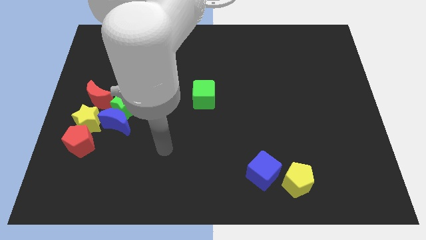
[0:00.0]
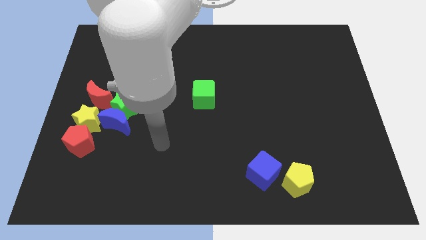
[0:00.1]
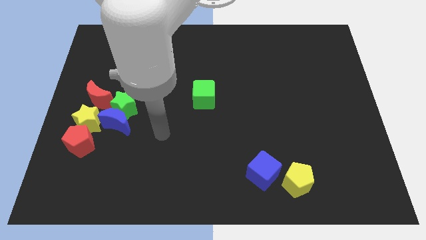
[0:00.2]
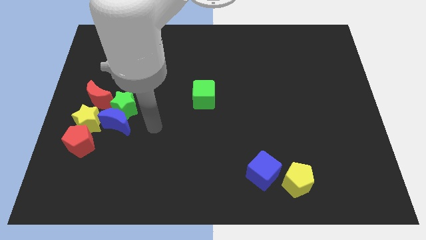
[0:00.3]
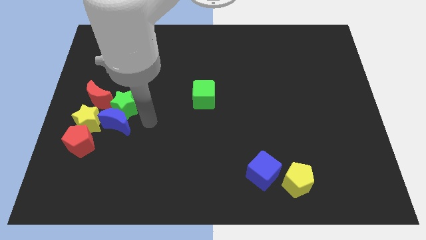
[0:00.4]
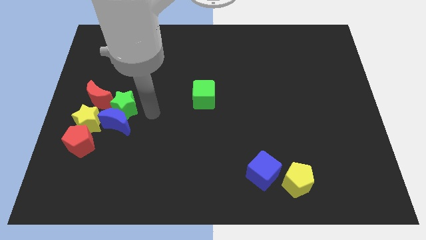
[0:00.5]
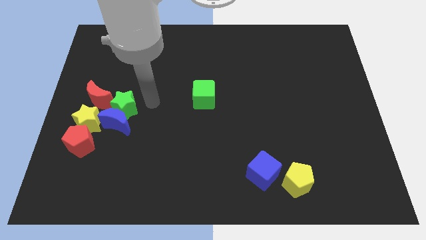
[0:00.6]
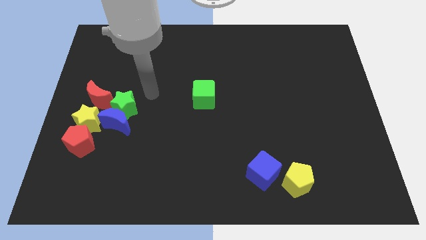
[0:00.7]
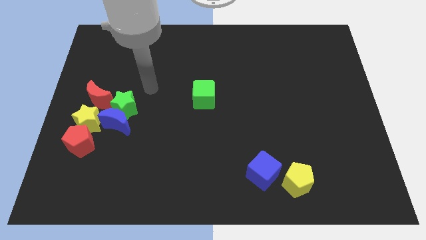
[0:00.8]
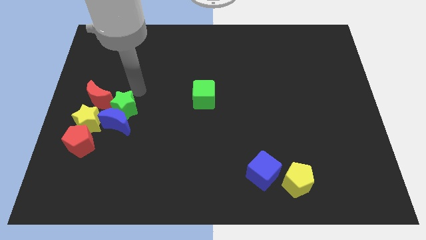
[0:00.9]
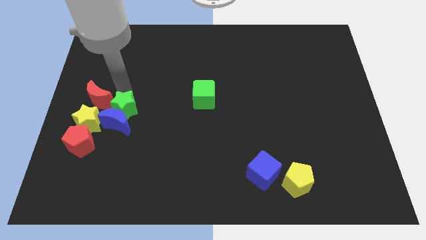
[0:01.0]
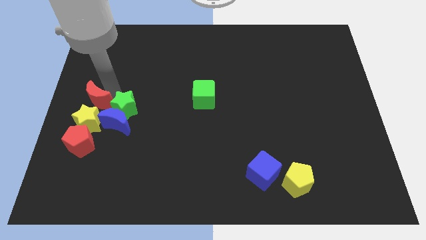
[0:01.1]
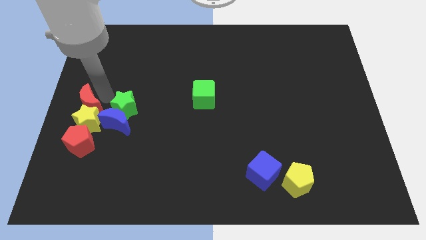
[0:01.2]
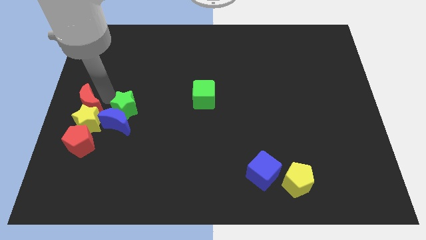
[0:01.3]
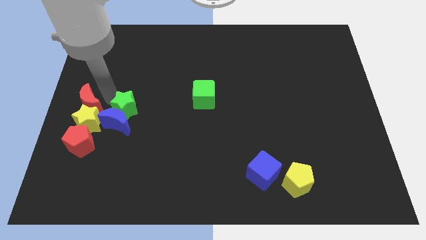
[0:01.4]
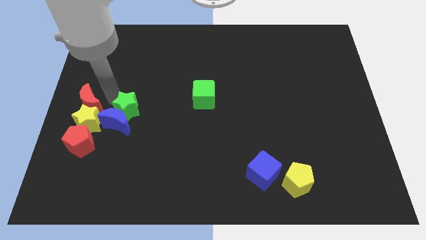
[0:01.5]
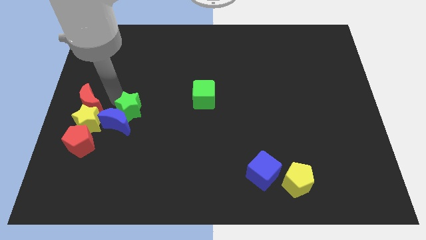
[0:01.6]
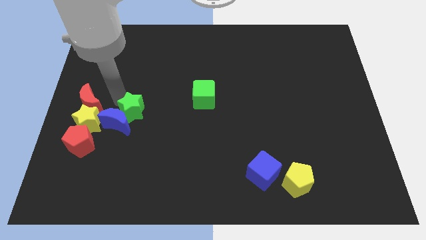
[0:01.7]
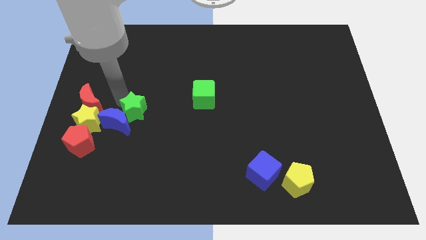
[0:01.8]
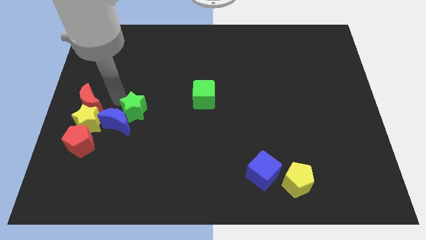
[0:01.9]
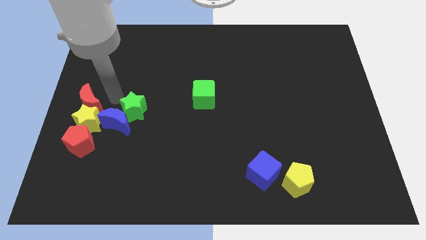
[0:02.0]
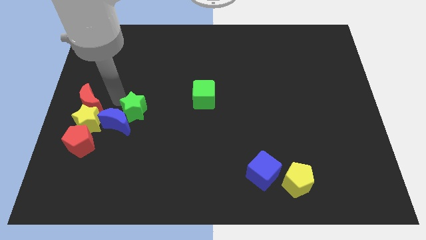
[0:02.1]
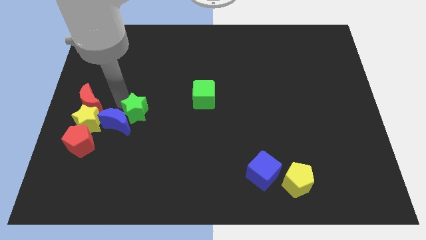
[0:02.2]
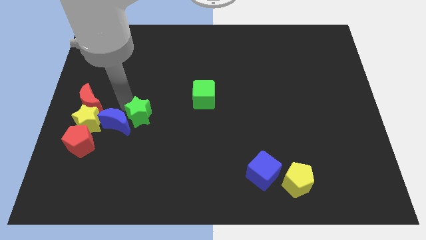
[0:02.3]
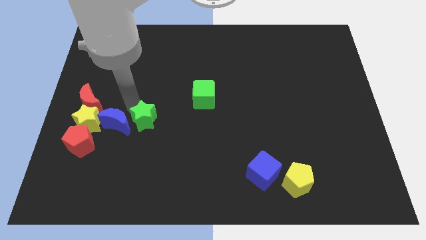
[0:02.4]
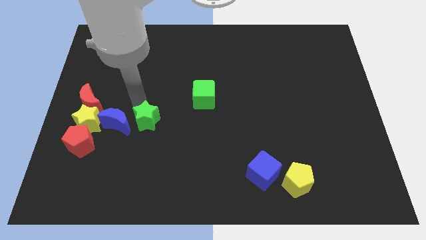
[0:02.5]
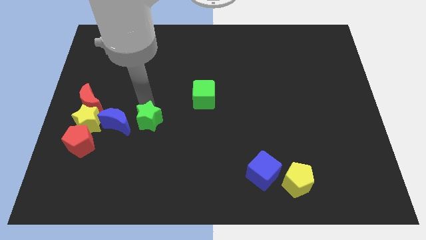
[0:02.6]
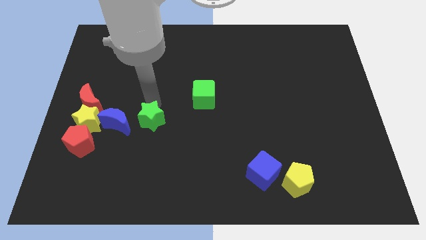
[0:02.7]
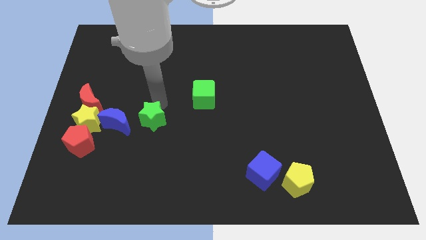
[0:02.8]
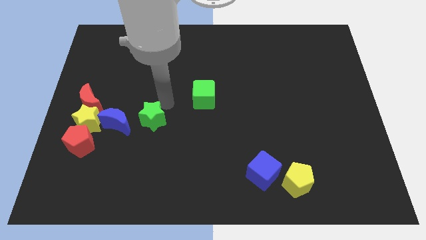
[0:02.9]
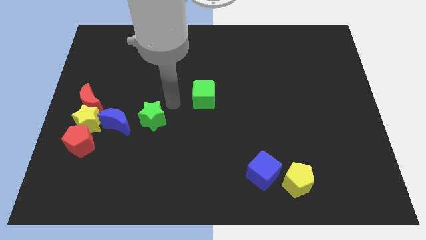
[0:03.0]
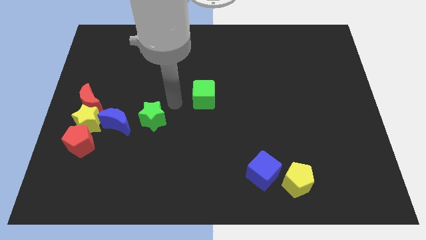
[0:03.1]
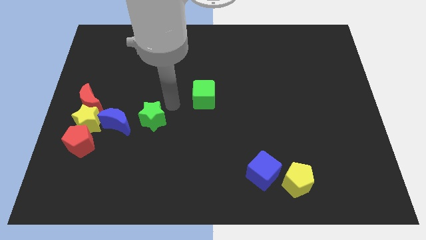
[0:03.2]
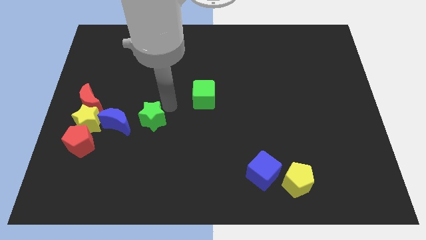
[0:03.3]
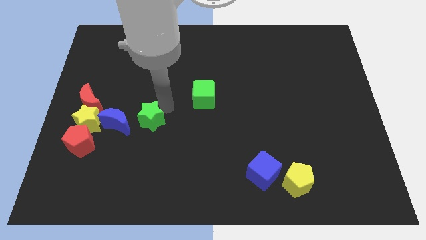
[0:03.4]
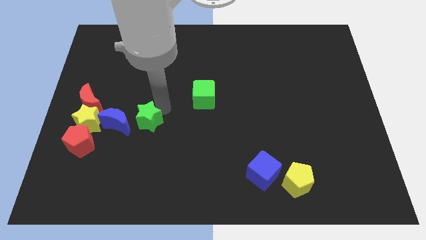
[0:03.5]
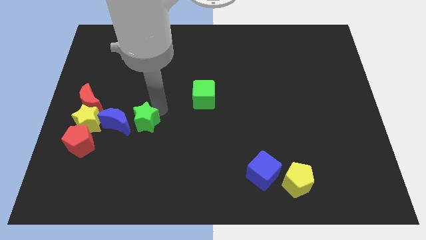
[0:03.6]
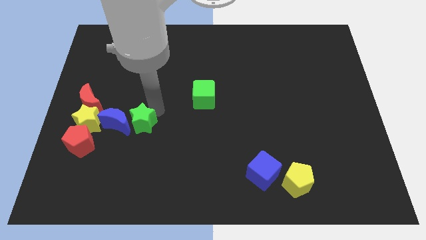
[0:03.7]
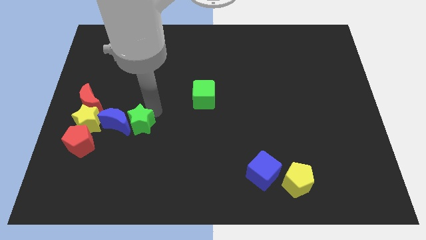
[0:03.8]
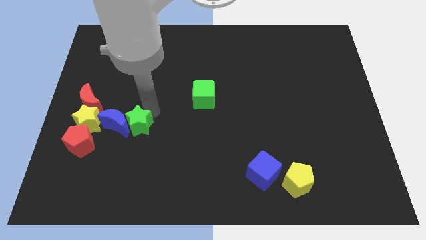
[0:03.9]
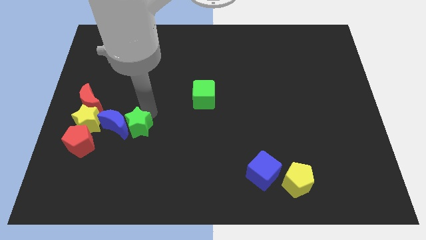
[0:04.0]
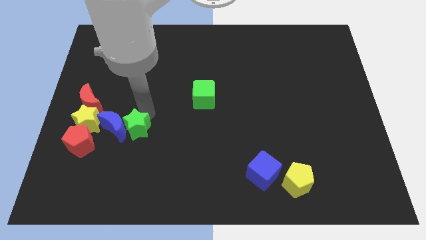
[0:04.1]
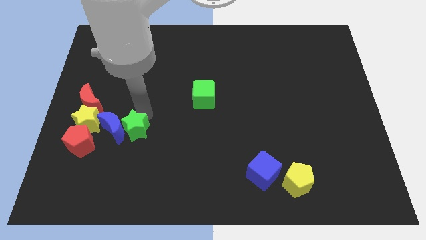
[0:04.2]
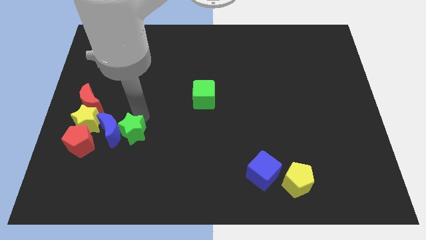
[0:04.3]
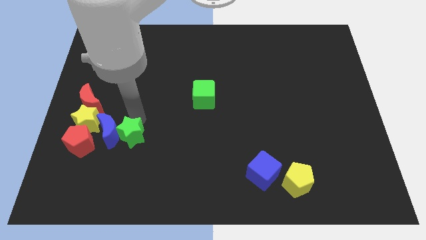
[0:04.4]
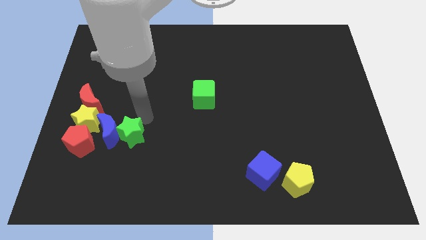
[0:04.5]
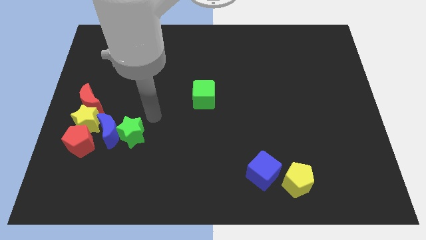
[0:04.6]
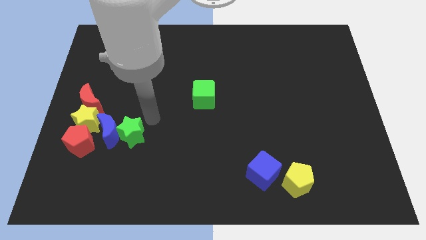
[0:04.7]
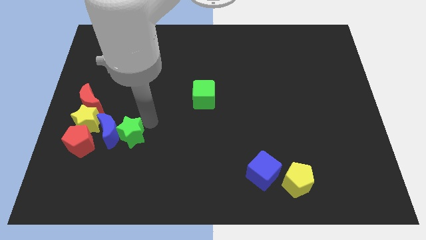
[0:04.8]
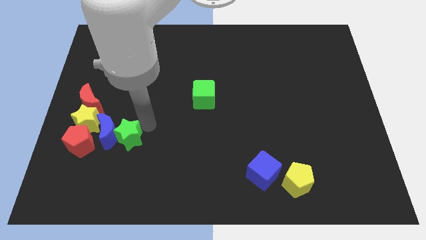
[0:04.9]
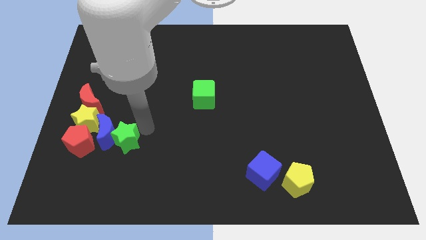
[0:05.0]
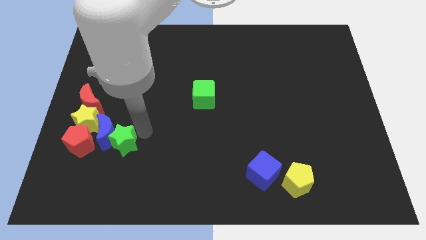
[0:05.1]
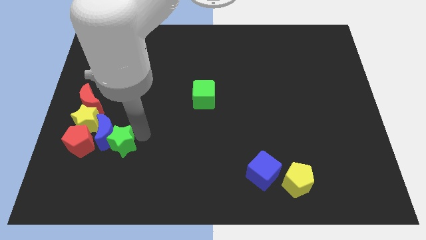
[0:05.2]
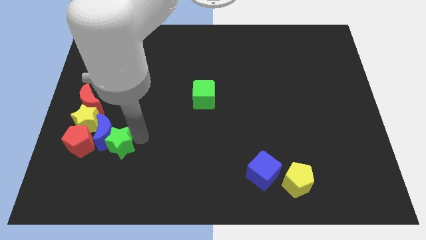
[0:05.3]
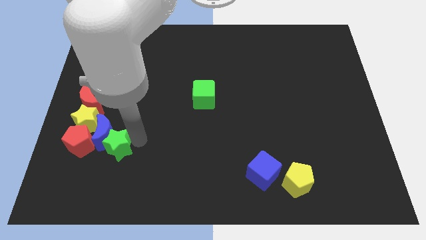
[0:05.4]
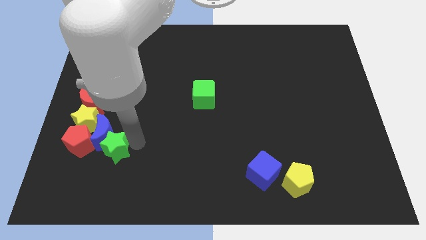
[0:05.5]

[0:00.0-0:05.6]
push the green star diagonally down and to the right of the red pentagon

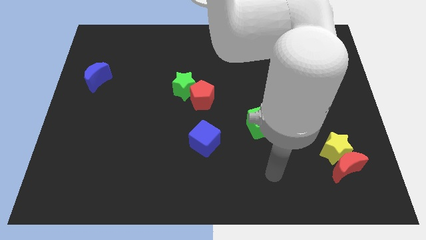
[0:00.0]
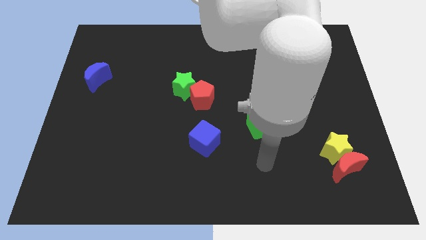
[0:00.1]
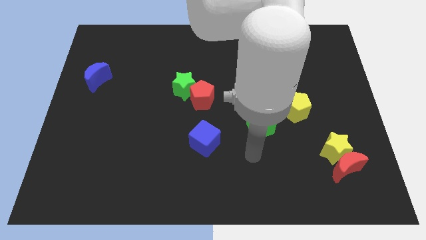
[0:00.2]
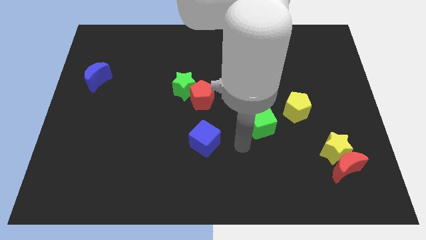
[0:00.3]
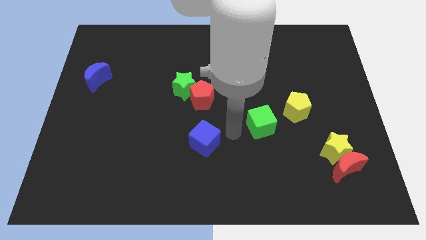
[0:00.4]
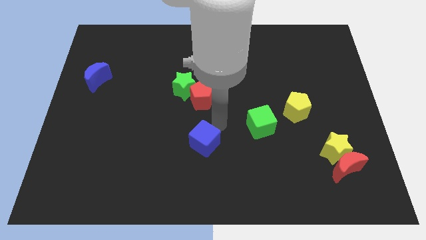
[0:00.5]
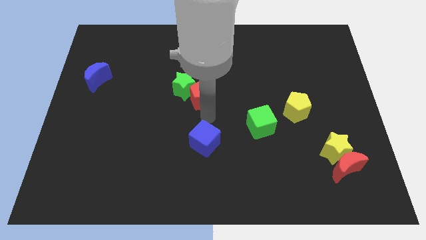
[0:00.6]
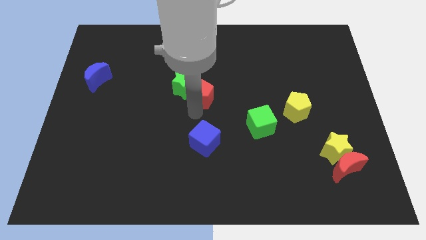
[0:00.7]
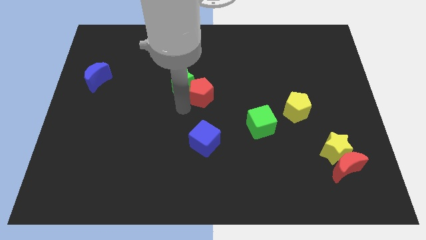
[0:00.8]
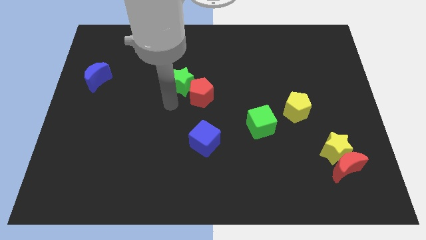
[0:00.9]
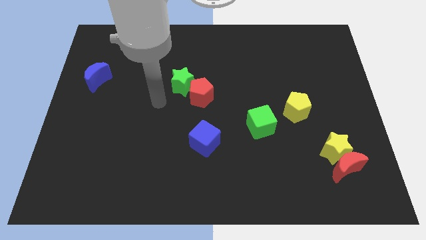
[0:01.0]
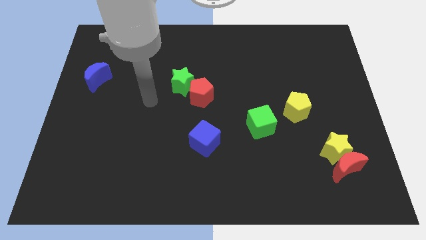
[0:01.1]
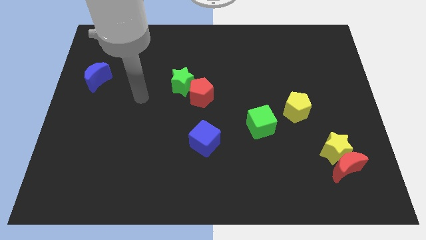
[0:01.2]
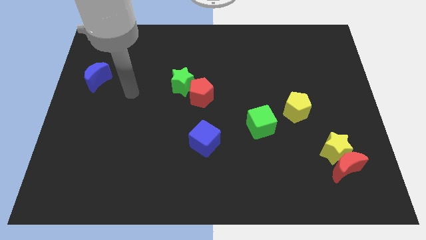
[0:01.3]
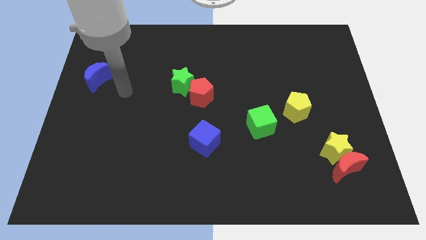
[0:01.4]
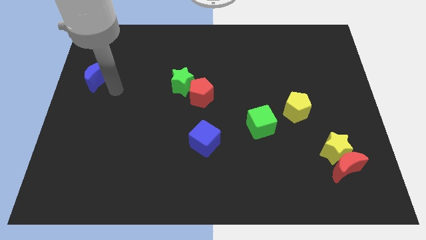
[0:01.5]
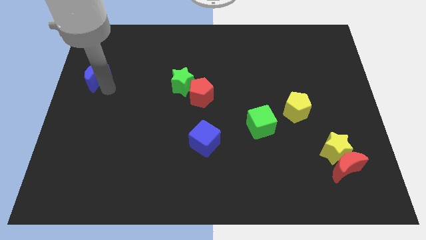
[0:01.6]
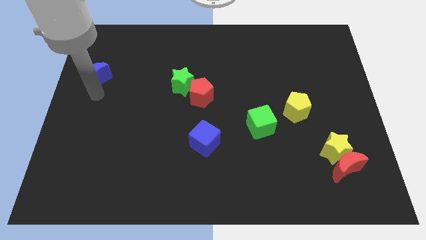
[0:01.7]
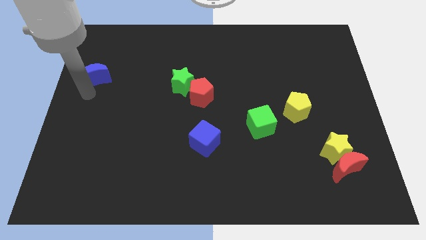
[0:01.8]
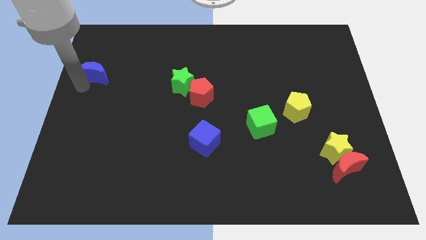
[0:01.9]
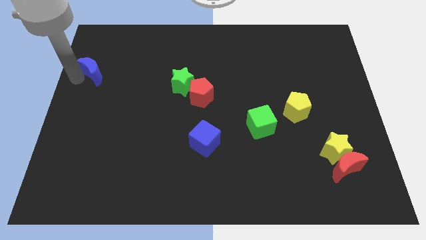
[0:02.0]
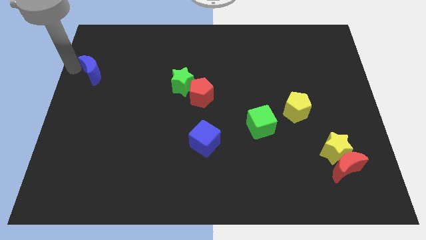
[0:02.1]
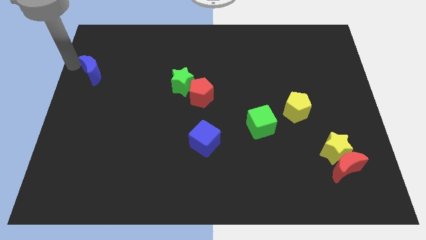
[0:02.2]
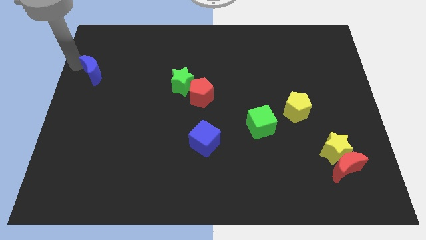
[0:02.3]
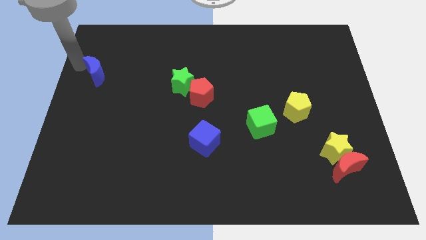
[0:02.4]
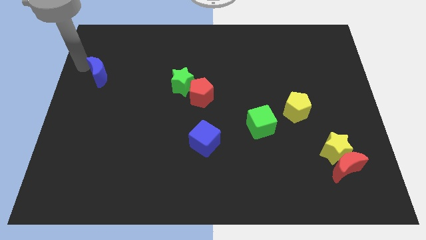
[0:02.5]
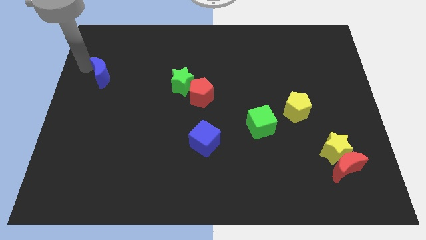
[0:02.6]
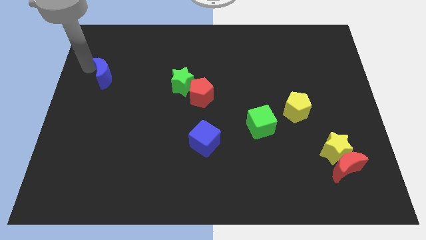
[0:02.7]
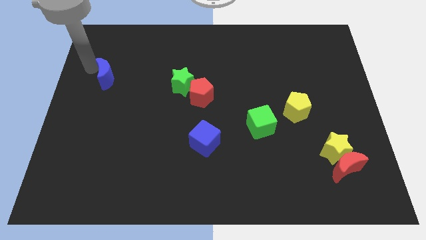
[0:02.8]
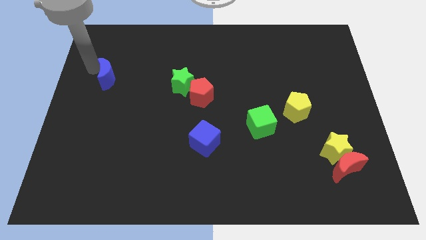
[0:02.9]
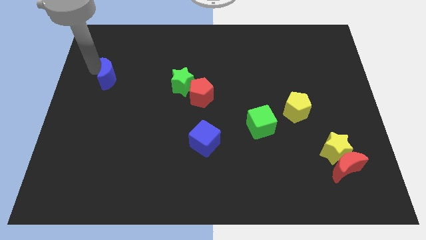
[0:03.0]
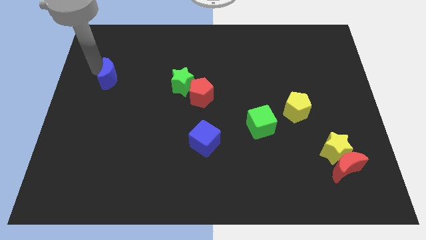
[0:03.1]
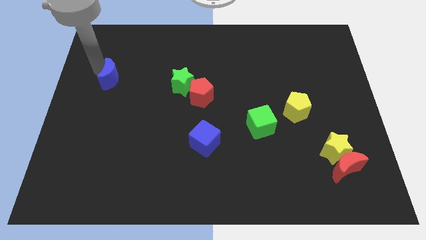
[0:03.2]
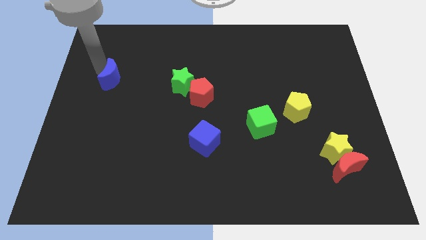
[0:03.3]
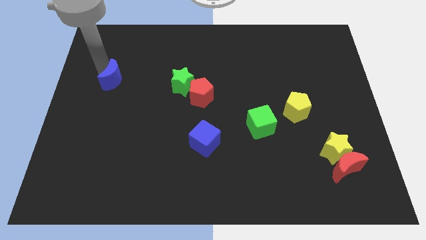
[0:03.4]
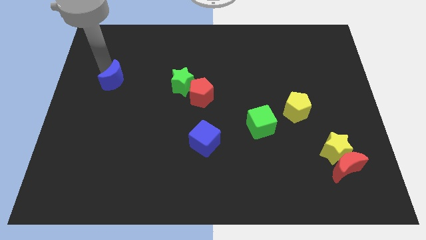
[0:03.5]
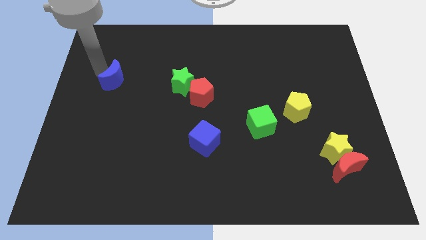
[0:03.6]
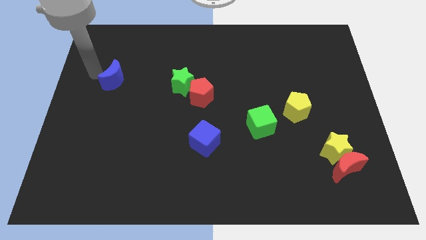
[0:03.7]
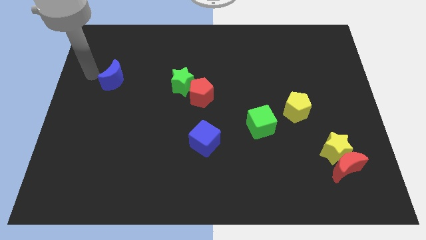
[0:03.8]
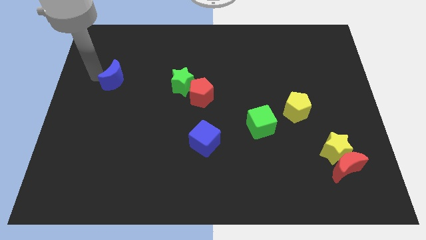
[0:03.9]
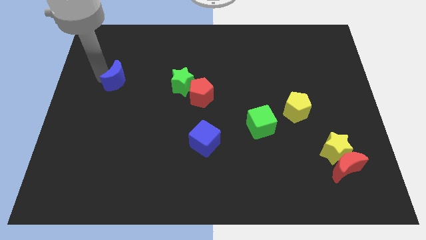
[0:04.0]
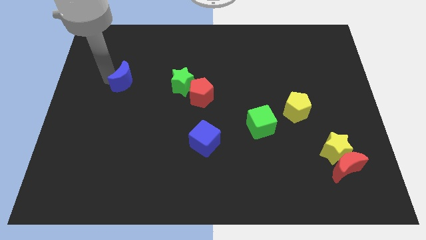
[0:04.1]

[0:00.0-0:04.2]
put the blue moon just left of the green star
